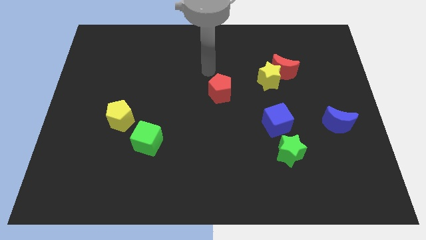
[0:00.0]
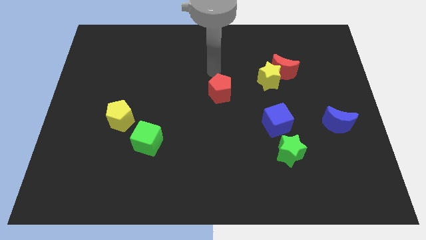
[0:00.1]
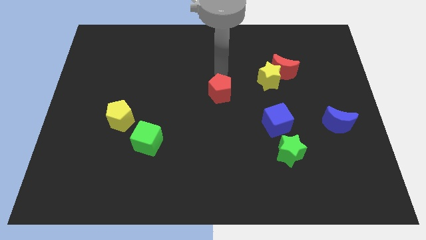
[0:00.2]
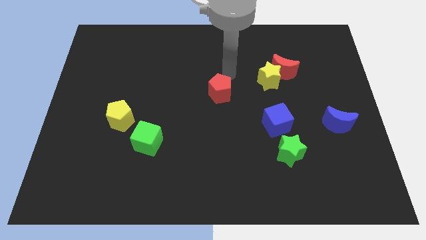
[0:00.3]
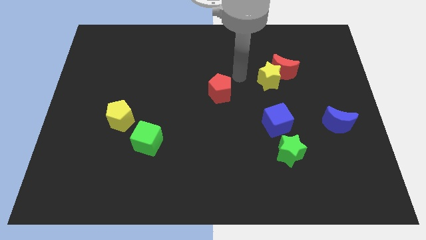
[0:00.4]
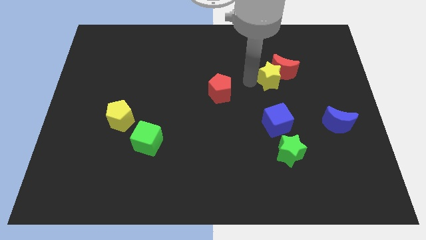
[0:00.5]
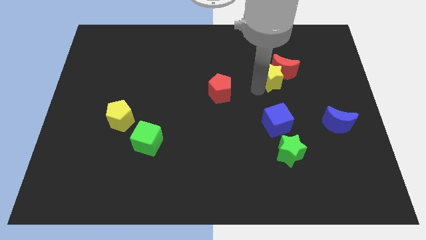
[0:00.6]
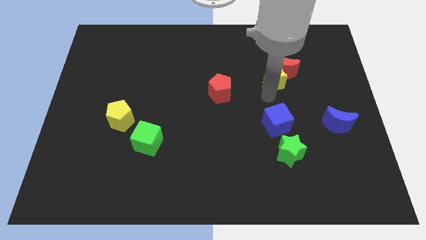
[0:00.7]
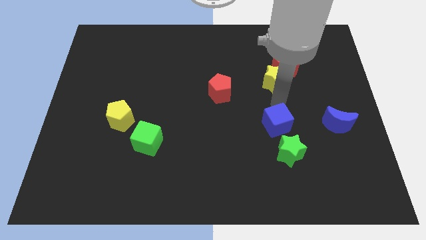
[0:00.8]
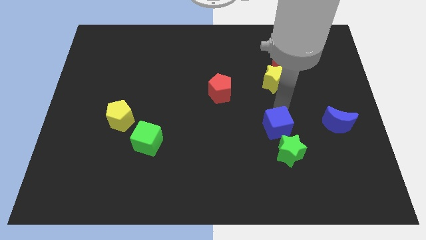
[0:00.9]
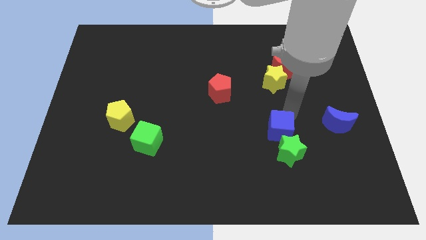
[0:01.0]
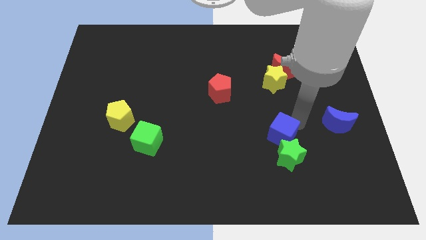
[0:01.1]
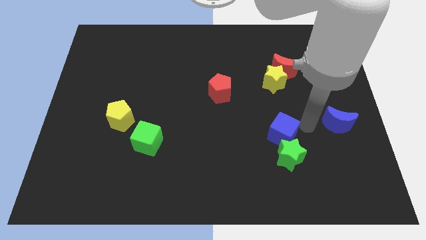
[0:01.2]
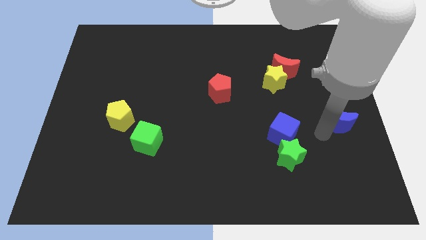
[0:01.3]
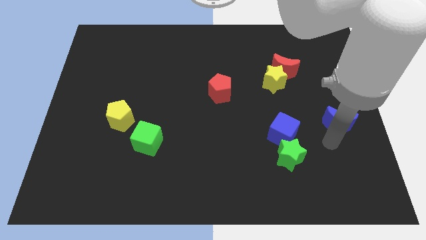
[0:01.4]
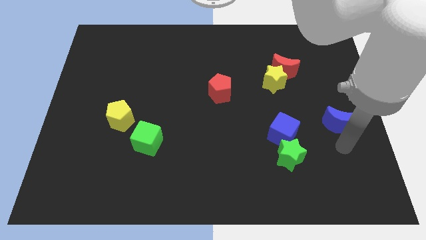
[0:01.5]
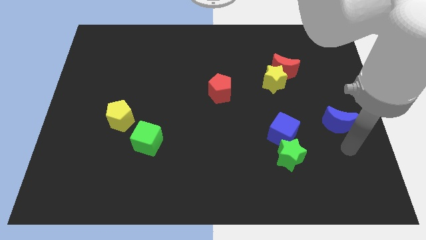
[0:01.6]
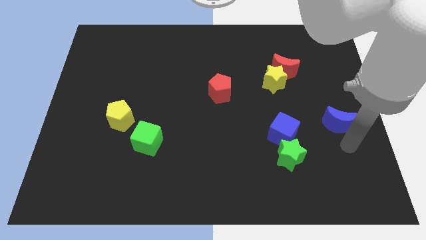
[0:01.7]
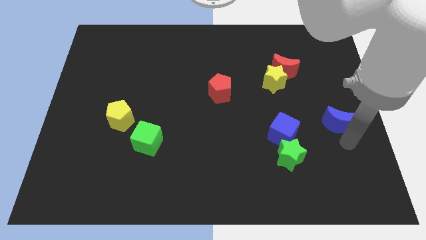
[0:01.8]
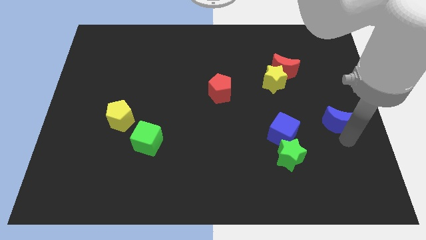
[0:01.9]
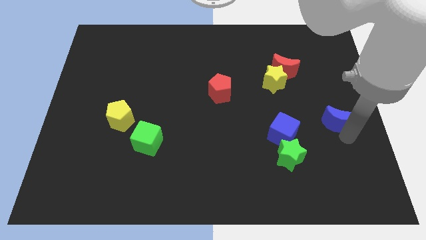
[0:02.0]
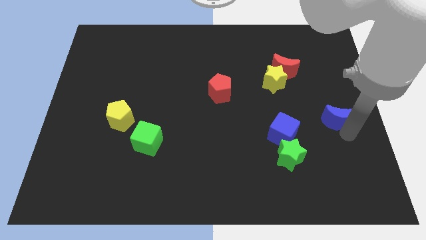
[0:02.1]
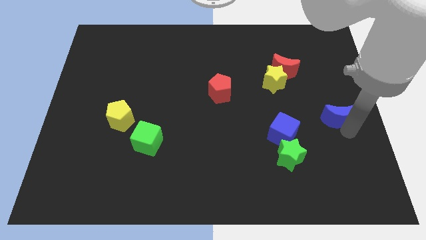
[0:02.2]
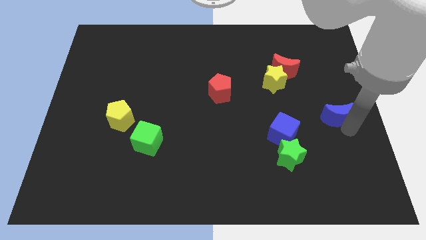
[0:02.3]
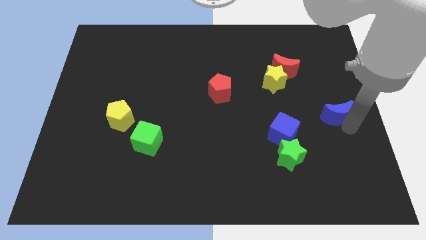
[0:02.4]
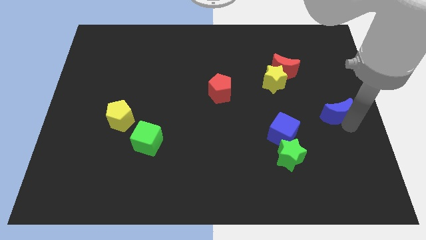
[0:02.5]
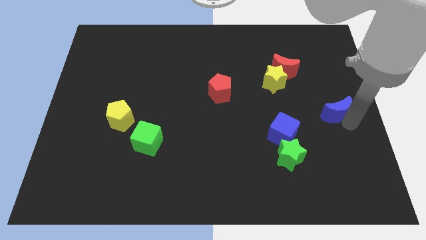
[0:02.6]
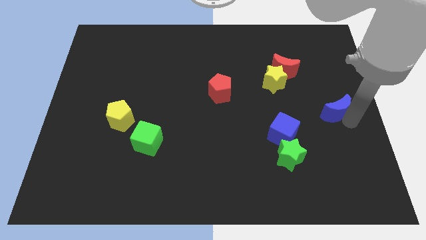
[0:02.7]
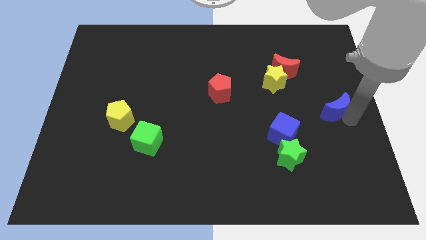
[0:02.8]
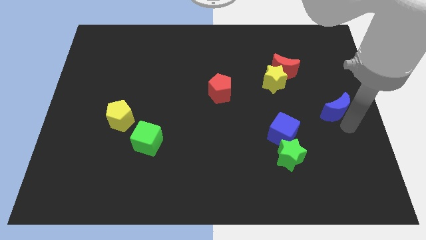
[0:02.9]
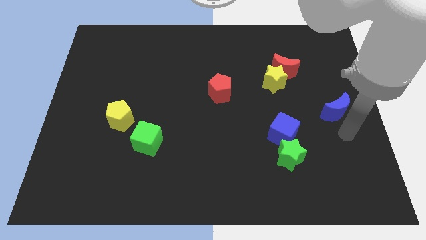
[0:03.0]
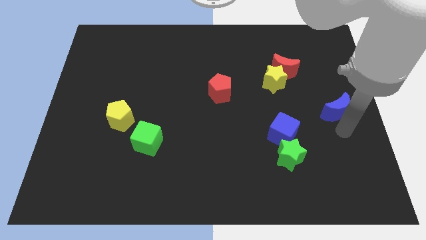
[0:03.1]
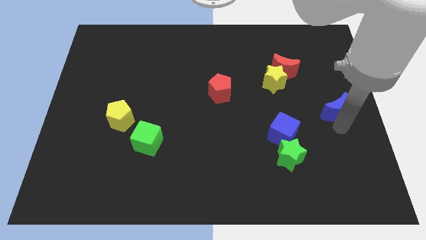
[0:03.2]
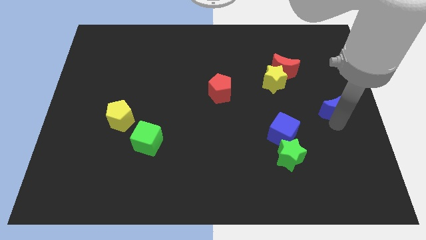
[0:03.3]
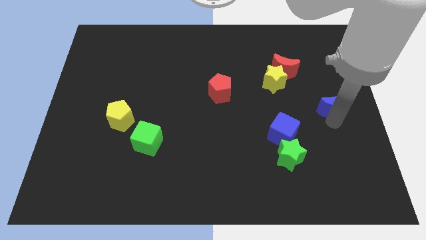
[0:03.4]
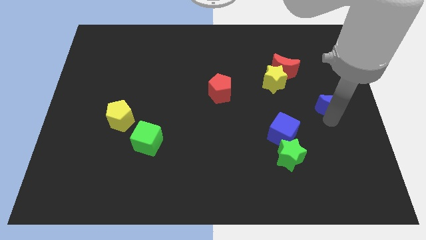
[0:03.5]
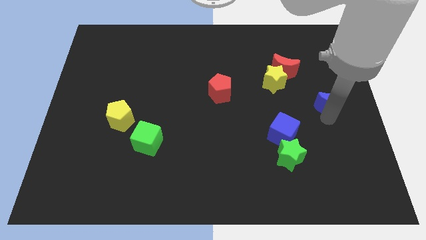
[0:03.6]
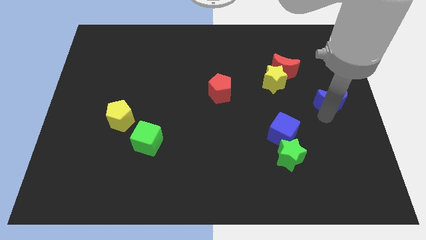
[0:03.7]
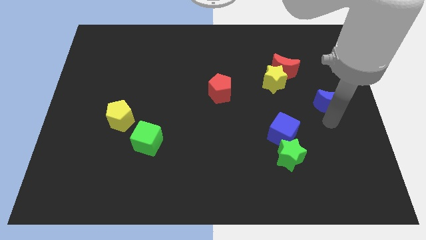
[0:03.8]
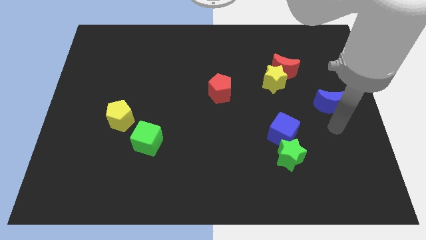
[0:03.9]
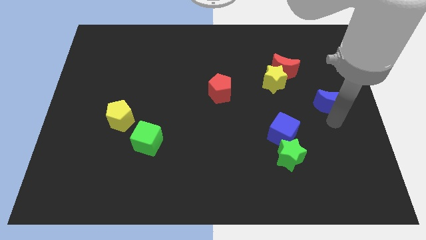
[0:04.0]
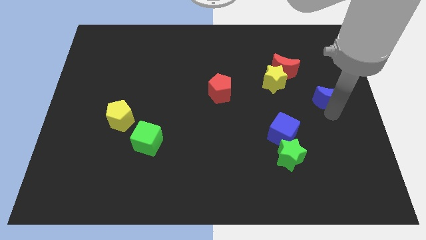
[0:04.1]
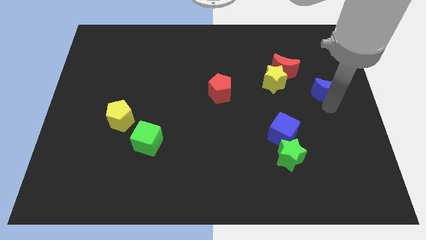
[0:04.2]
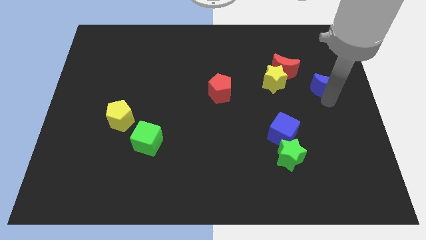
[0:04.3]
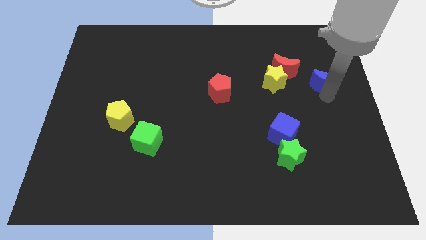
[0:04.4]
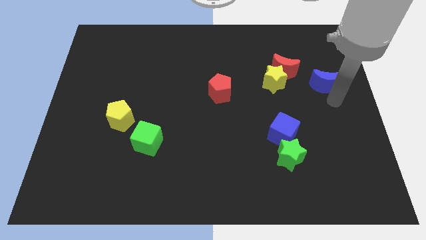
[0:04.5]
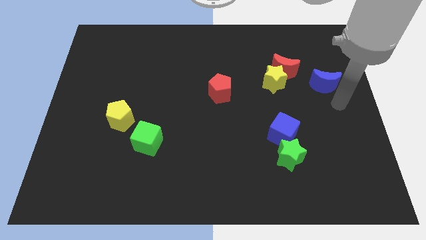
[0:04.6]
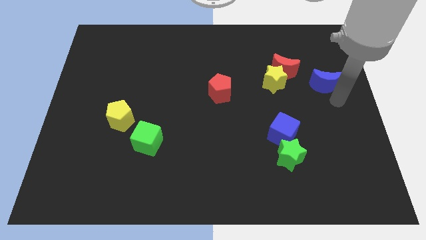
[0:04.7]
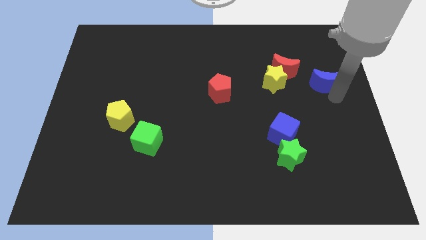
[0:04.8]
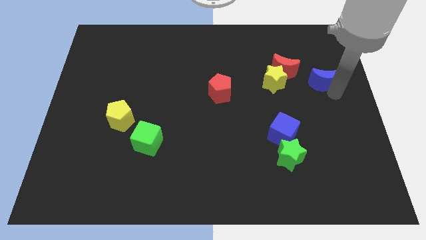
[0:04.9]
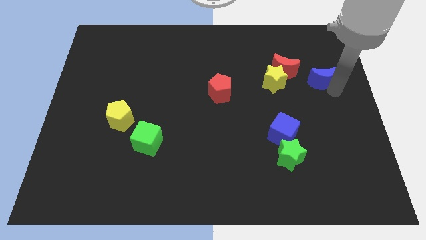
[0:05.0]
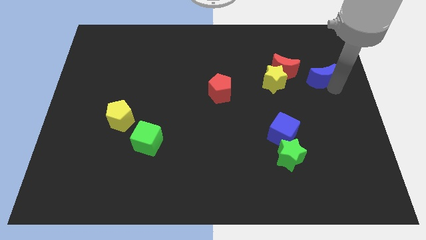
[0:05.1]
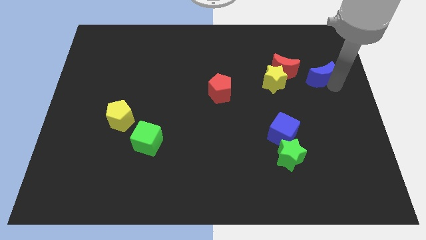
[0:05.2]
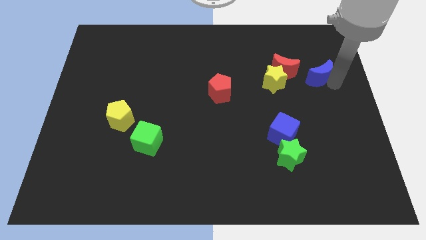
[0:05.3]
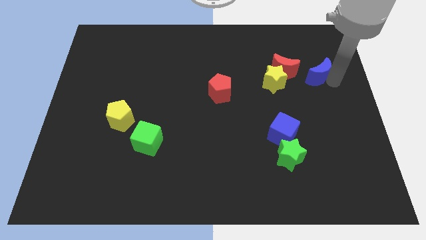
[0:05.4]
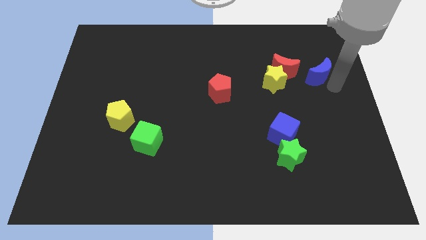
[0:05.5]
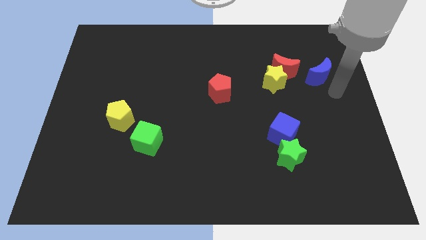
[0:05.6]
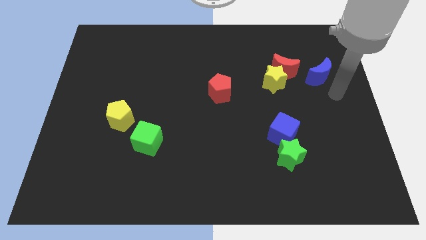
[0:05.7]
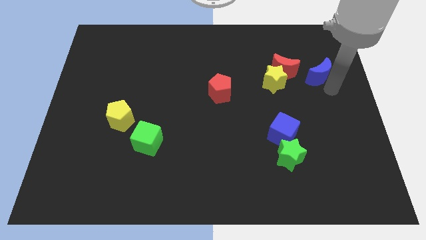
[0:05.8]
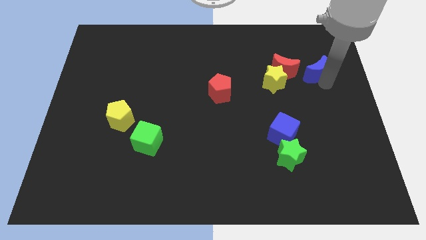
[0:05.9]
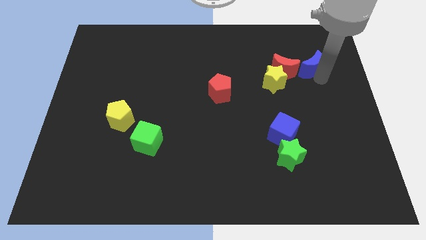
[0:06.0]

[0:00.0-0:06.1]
push the blue moon to the top right of the red moon

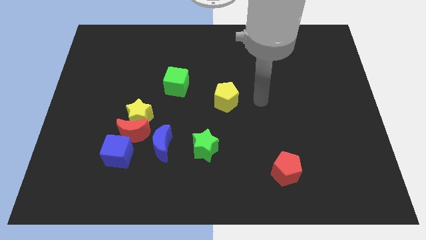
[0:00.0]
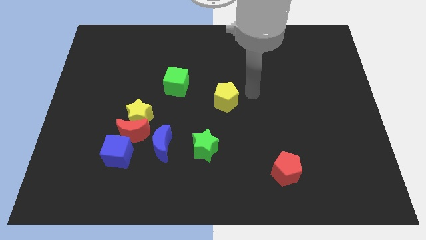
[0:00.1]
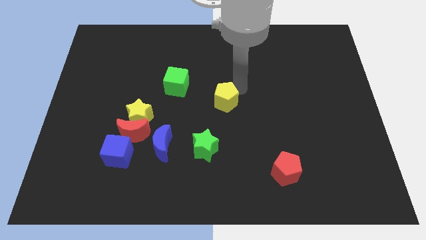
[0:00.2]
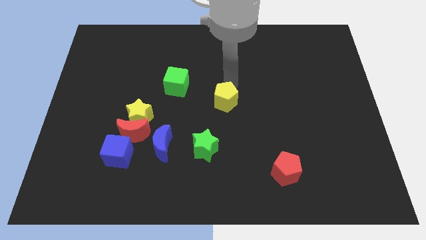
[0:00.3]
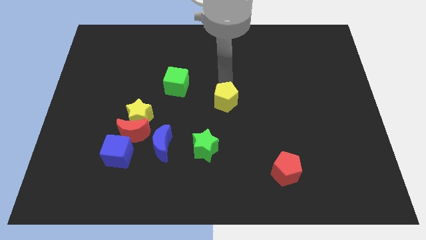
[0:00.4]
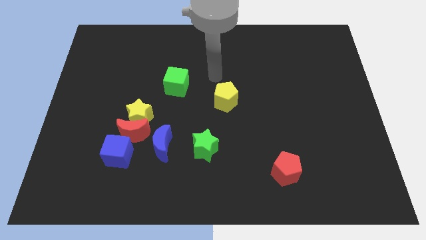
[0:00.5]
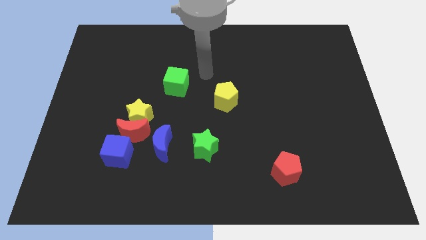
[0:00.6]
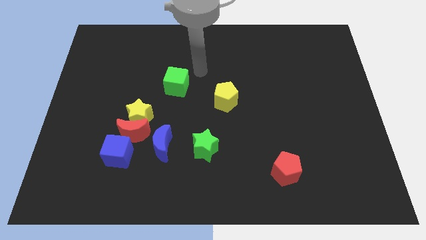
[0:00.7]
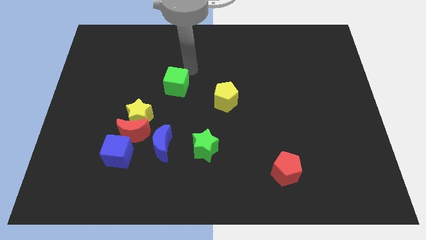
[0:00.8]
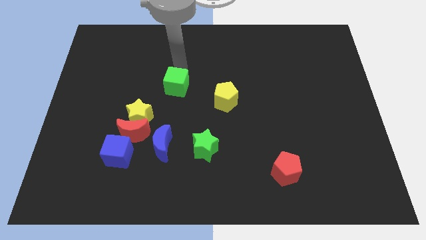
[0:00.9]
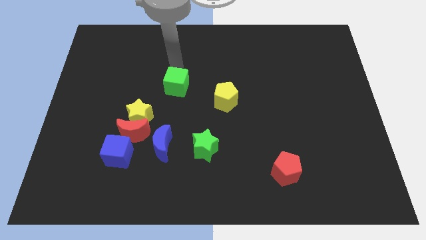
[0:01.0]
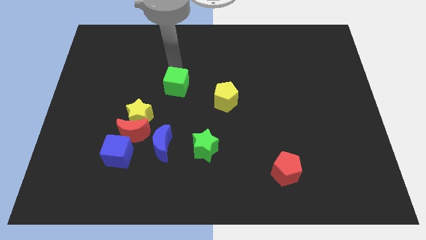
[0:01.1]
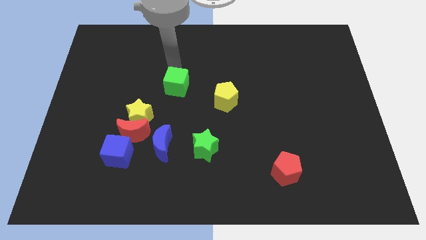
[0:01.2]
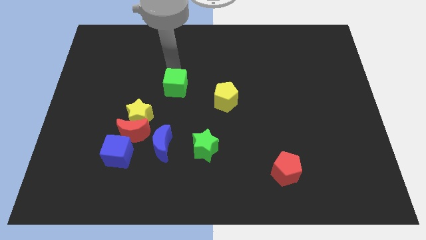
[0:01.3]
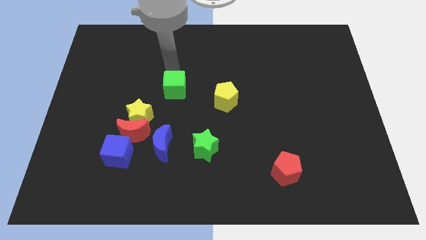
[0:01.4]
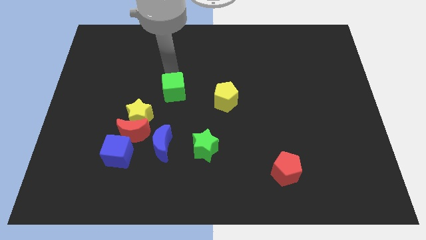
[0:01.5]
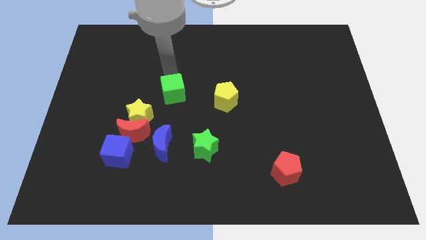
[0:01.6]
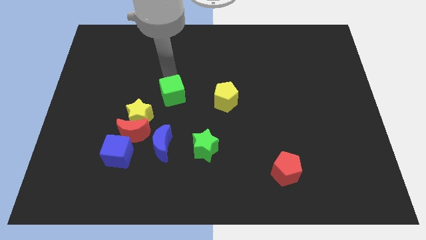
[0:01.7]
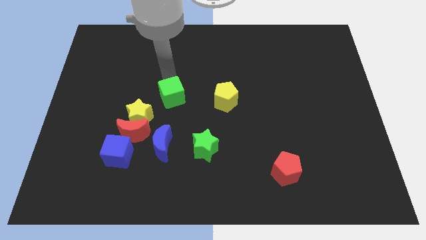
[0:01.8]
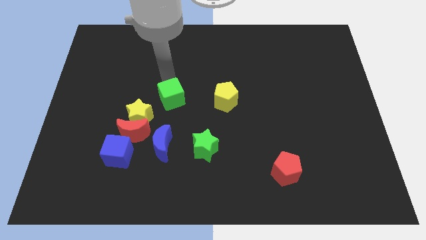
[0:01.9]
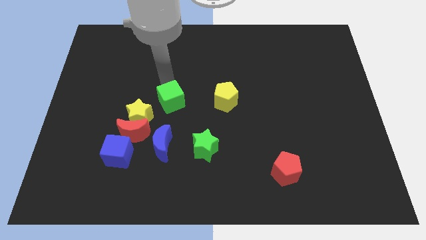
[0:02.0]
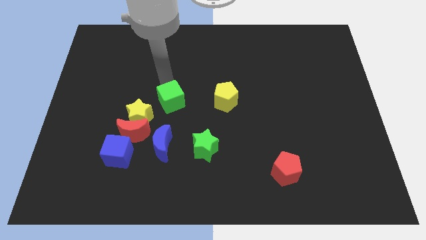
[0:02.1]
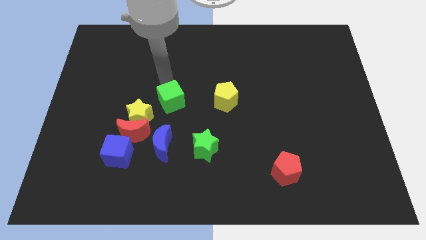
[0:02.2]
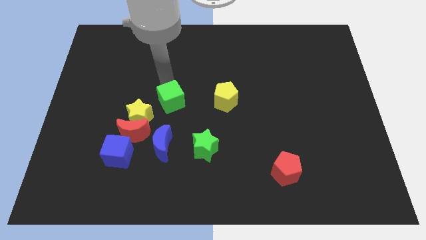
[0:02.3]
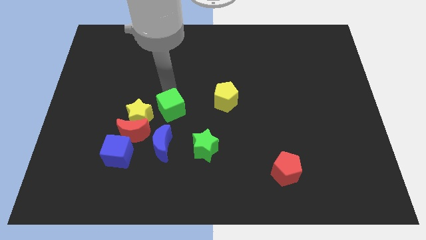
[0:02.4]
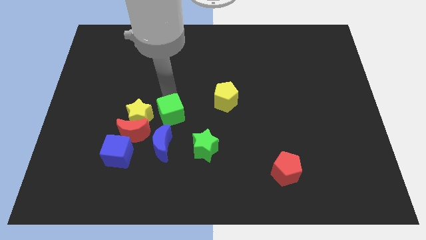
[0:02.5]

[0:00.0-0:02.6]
push the green cube diagonally up and to the left of the green star
